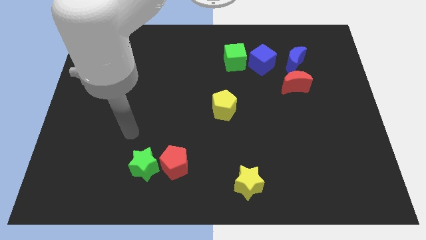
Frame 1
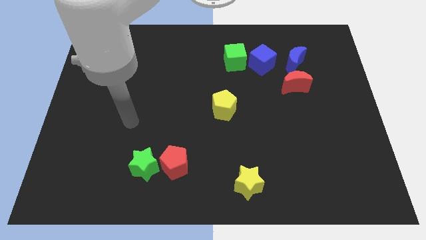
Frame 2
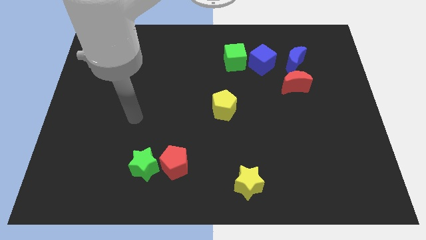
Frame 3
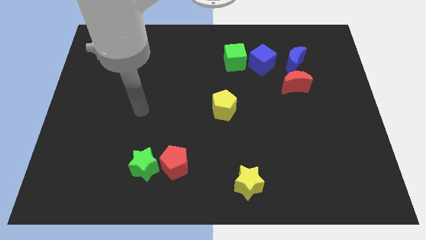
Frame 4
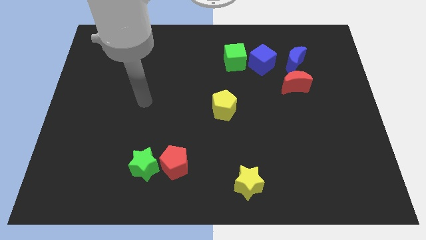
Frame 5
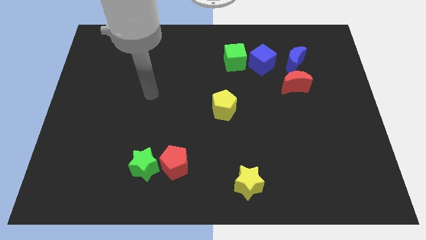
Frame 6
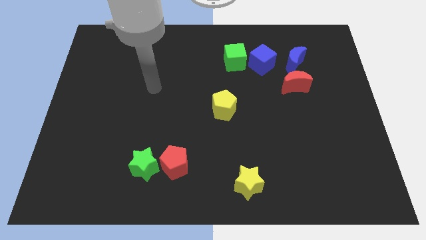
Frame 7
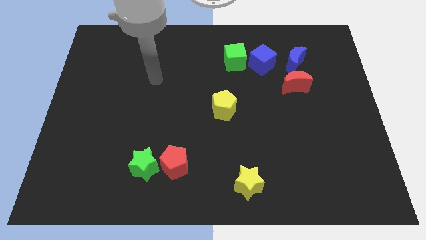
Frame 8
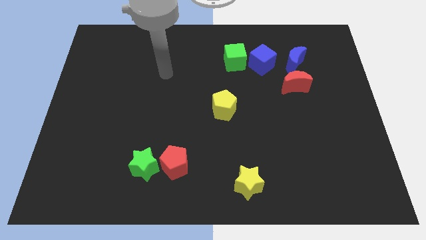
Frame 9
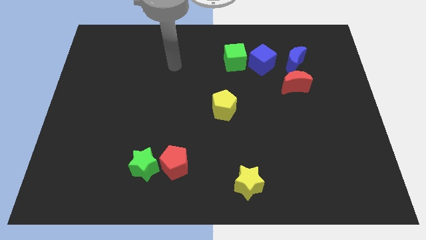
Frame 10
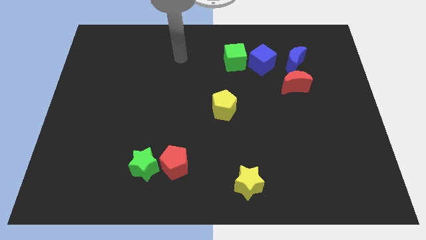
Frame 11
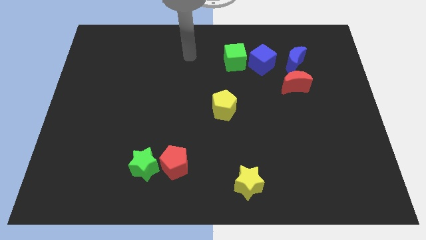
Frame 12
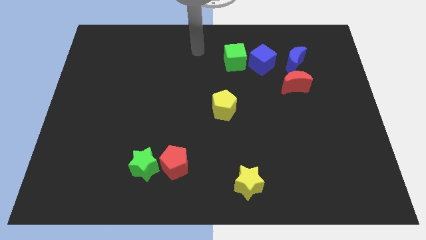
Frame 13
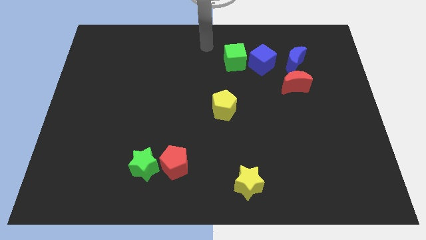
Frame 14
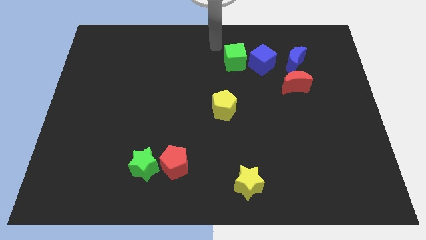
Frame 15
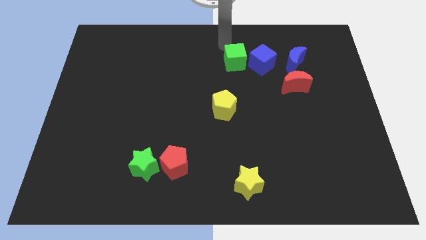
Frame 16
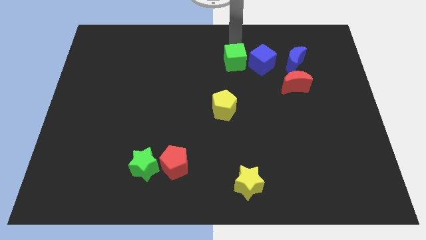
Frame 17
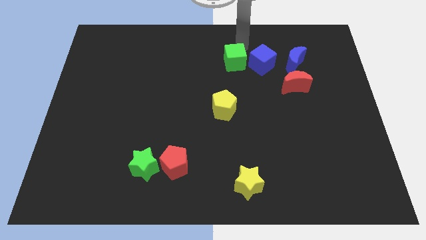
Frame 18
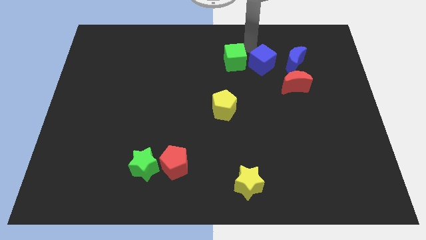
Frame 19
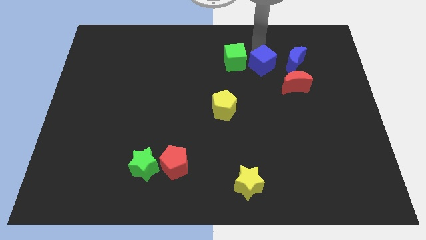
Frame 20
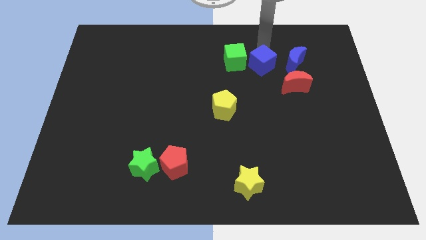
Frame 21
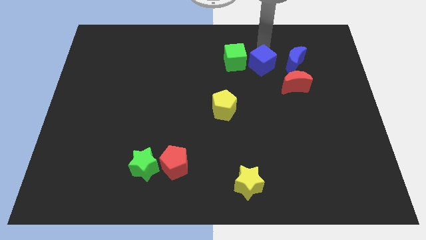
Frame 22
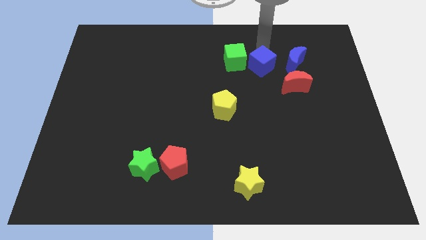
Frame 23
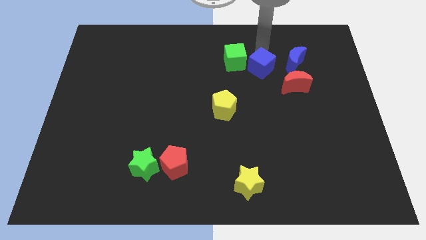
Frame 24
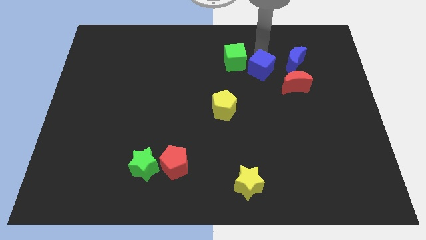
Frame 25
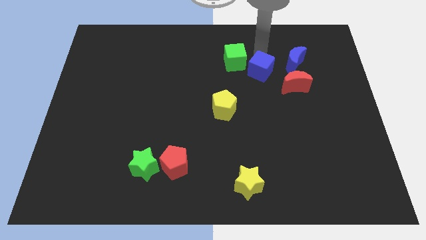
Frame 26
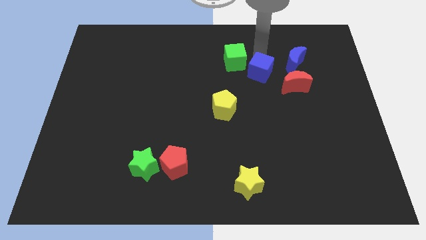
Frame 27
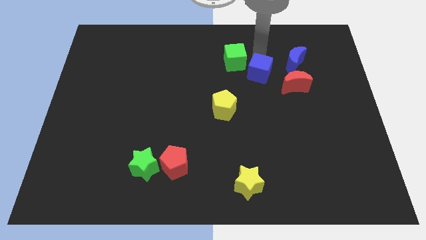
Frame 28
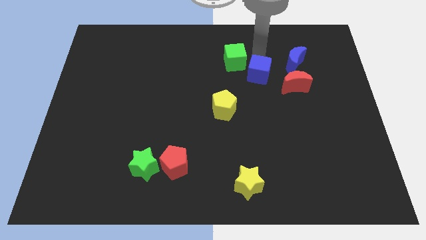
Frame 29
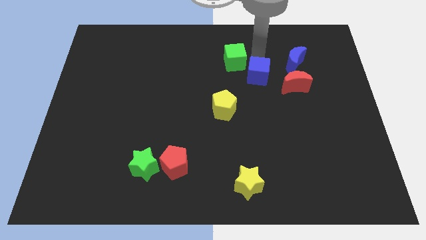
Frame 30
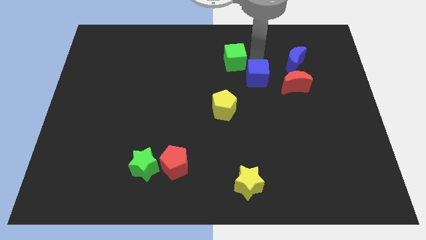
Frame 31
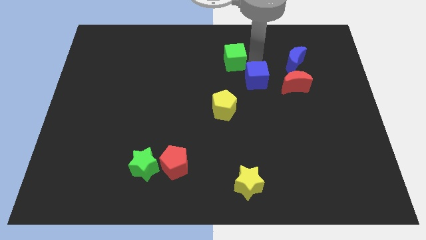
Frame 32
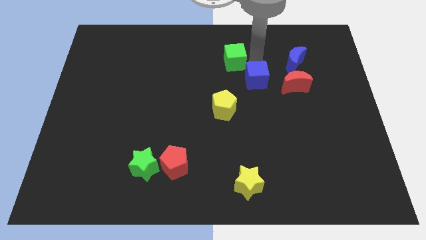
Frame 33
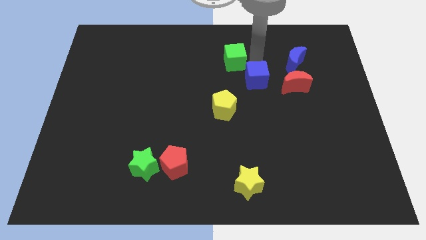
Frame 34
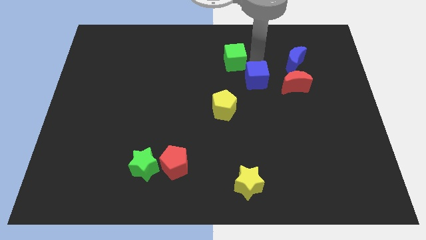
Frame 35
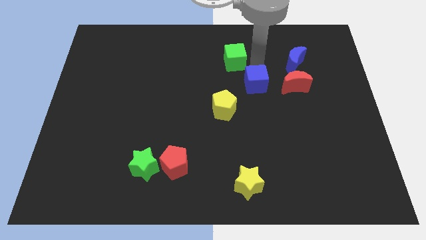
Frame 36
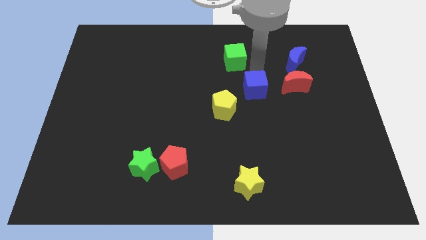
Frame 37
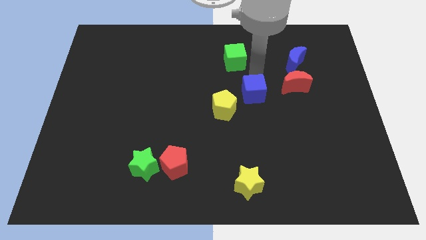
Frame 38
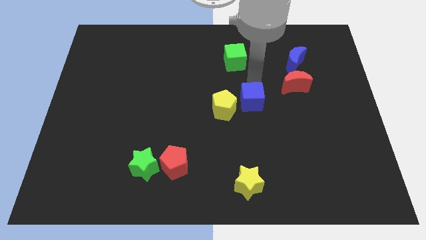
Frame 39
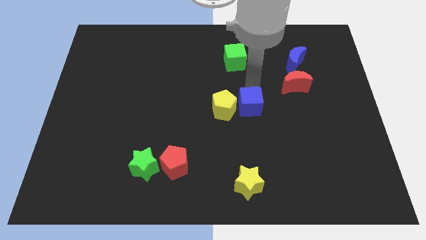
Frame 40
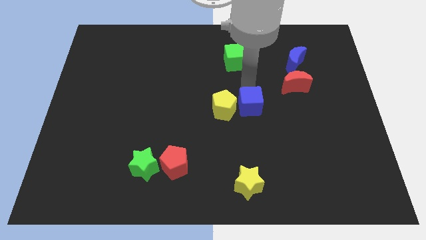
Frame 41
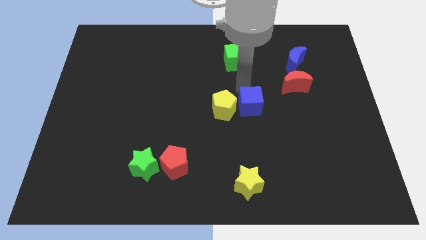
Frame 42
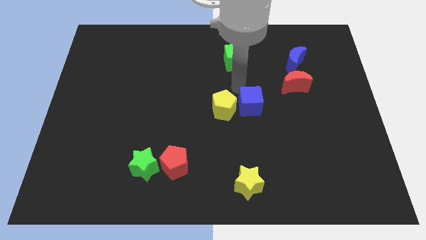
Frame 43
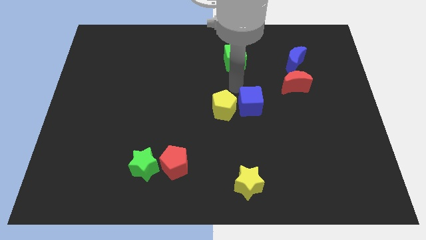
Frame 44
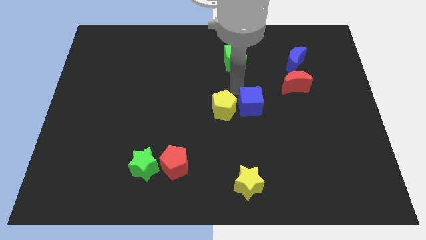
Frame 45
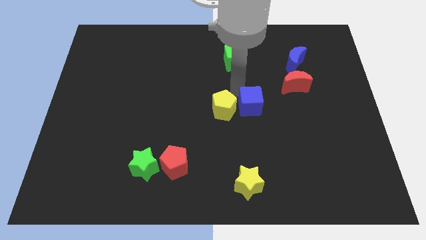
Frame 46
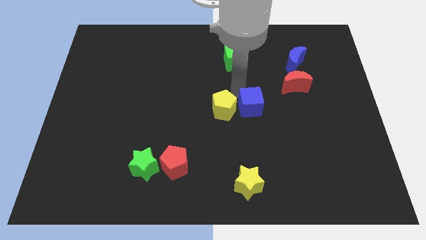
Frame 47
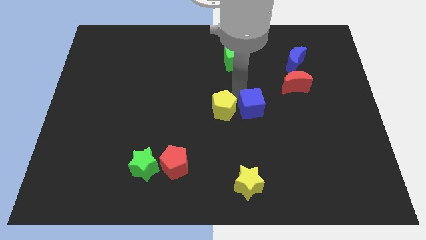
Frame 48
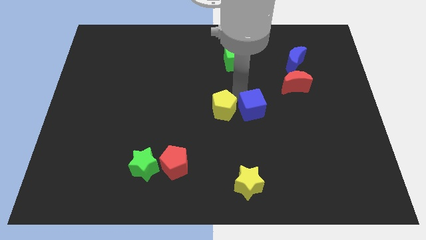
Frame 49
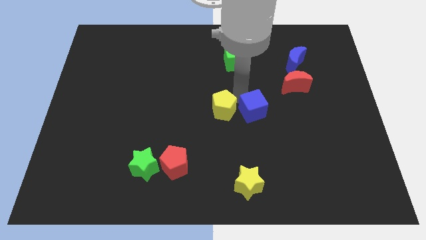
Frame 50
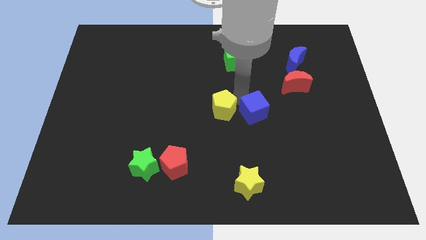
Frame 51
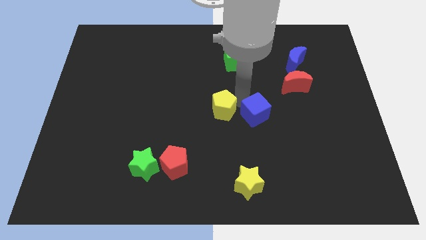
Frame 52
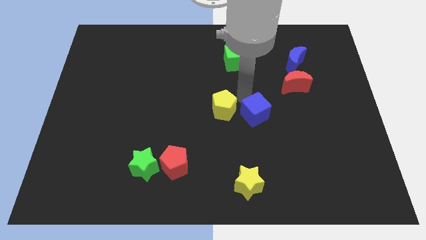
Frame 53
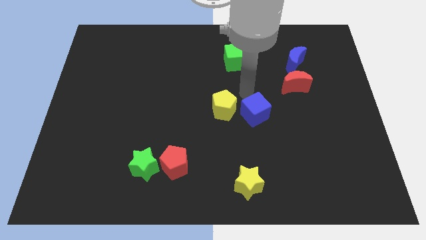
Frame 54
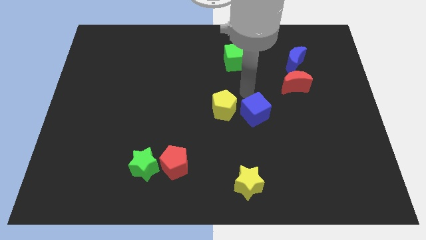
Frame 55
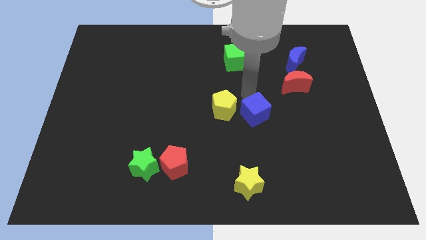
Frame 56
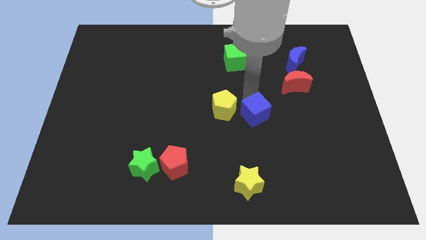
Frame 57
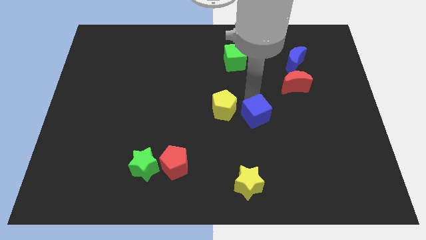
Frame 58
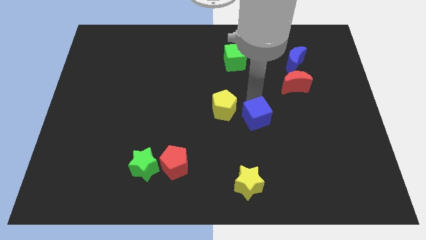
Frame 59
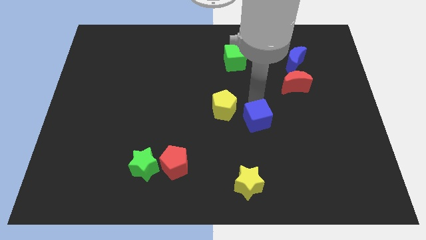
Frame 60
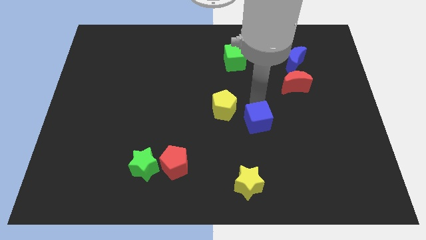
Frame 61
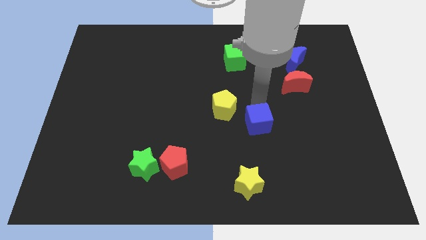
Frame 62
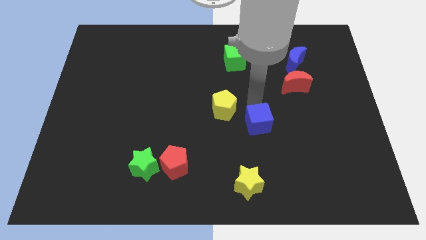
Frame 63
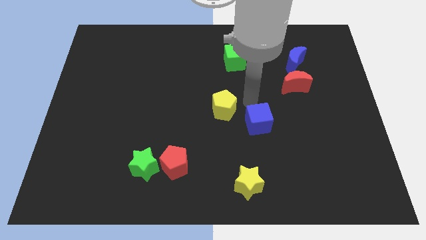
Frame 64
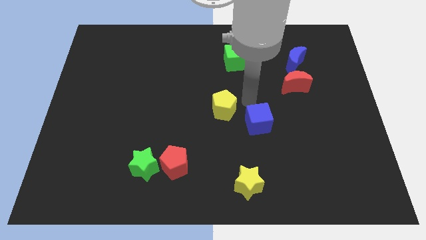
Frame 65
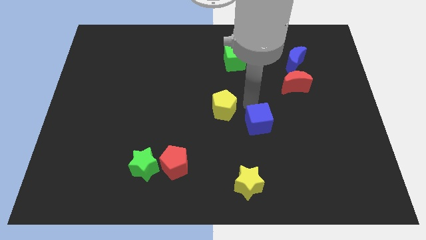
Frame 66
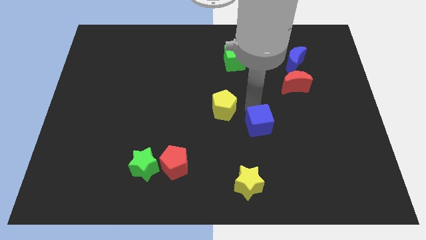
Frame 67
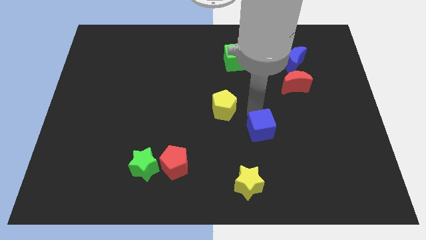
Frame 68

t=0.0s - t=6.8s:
slide the blue cube downwards

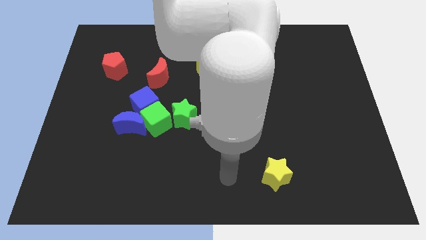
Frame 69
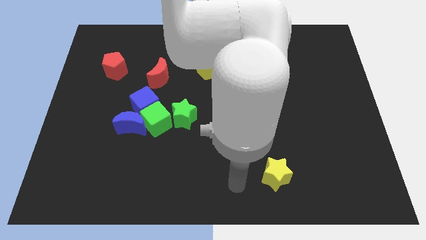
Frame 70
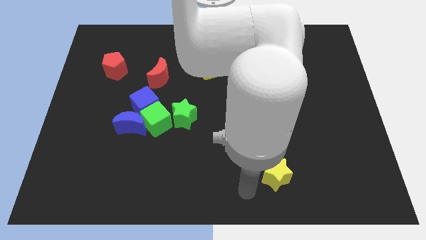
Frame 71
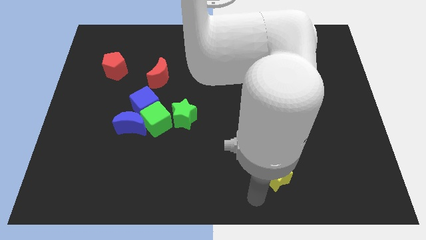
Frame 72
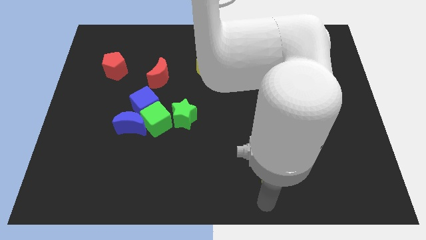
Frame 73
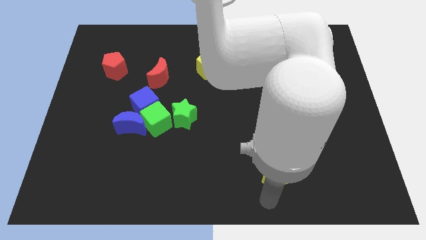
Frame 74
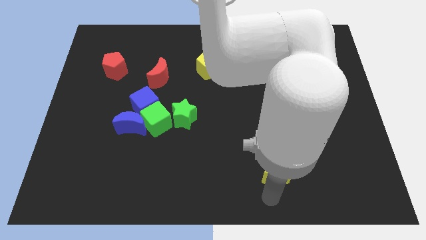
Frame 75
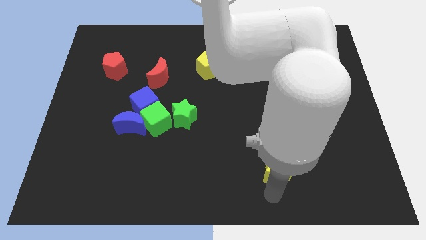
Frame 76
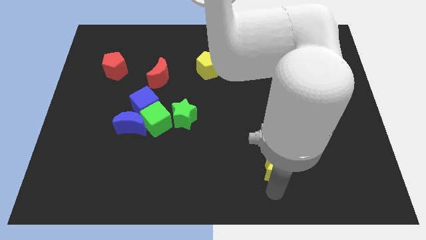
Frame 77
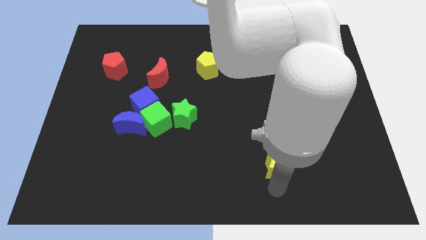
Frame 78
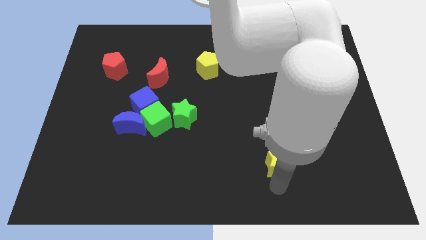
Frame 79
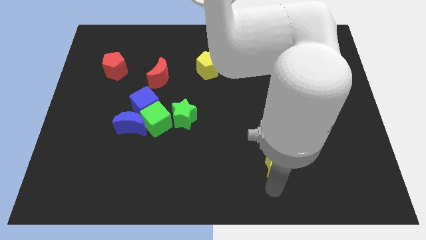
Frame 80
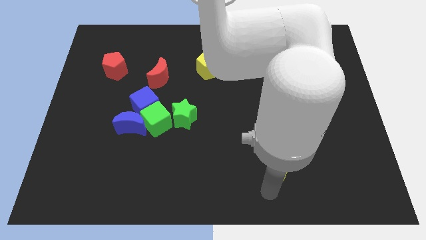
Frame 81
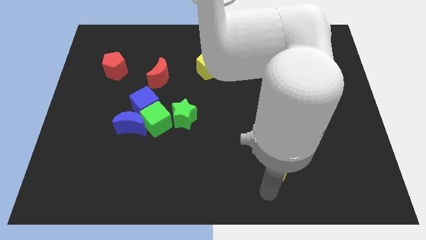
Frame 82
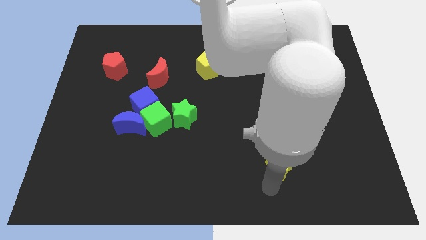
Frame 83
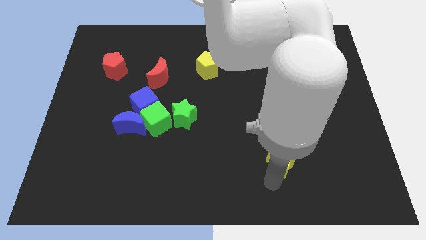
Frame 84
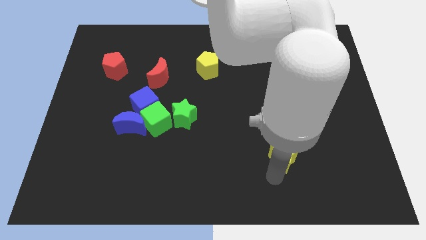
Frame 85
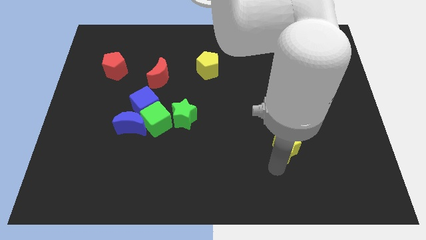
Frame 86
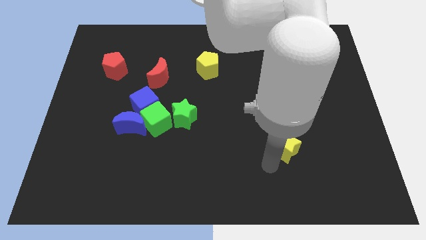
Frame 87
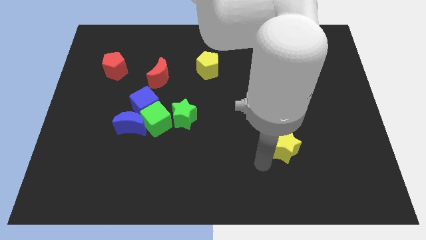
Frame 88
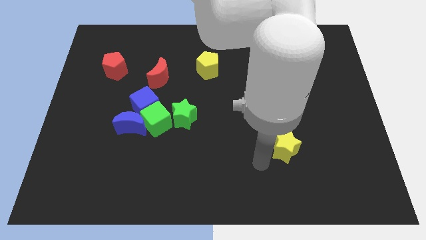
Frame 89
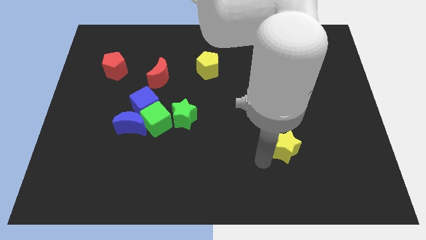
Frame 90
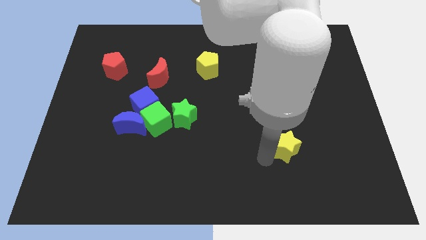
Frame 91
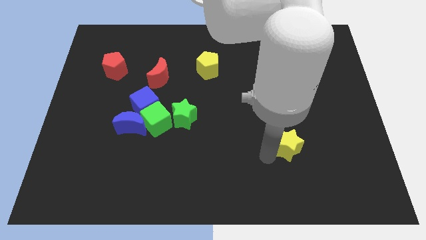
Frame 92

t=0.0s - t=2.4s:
slightly move the yellow star diagonally upwards and to the right
